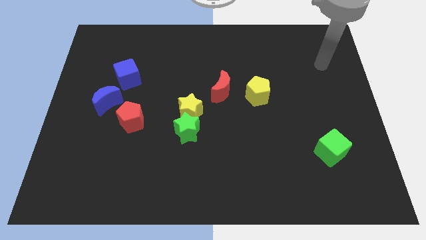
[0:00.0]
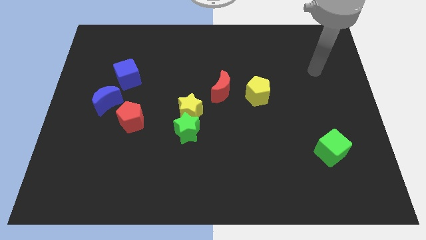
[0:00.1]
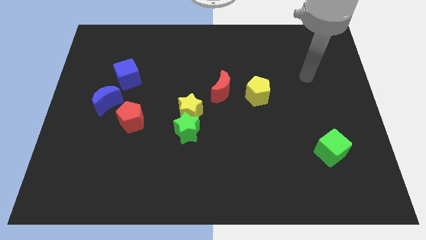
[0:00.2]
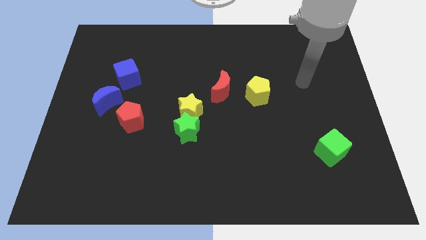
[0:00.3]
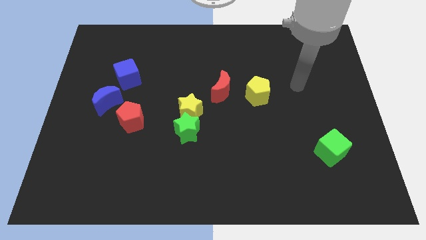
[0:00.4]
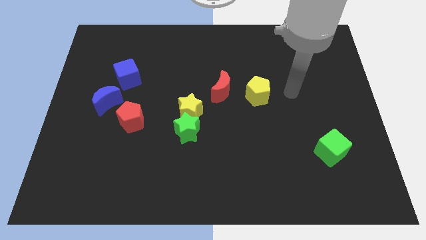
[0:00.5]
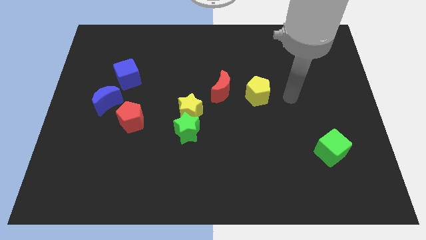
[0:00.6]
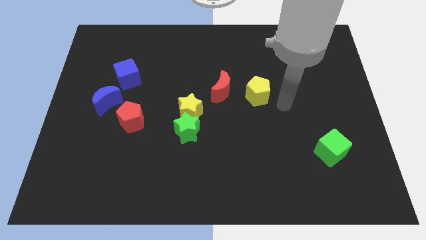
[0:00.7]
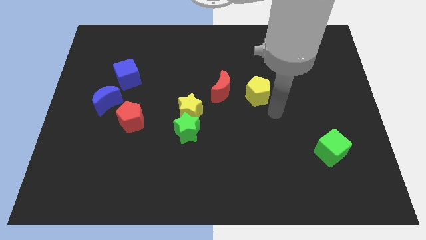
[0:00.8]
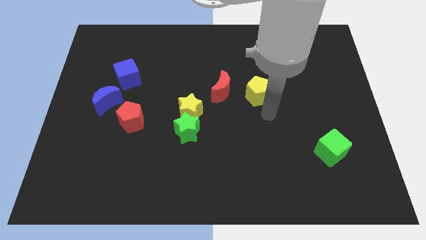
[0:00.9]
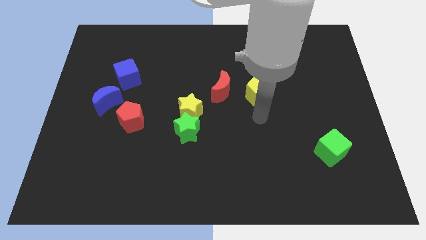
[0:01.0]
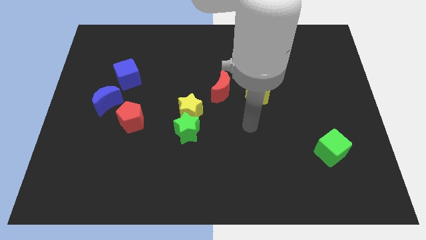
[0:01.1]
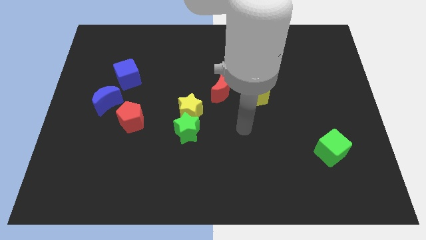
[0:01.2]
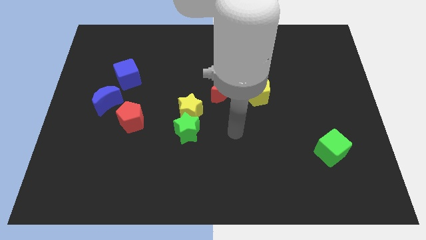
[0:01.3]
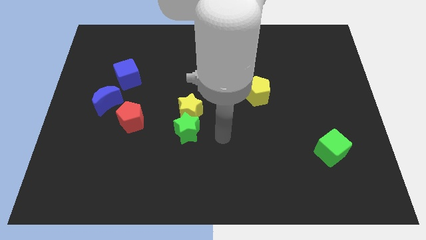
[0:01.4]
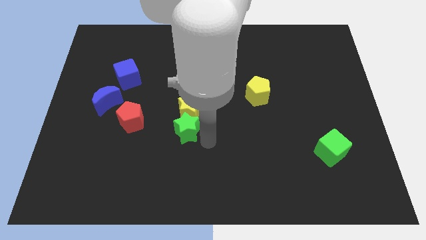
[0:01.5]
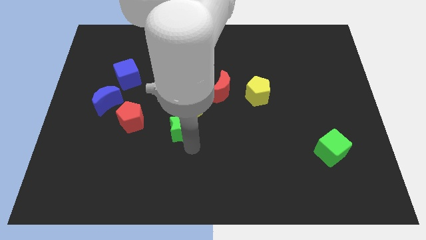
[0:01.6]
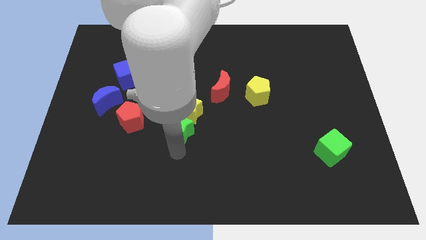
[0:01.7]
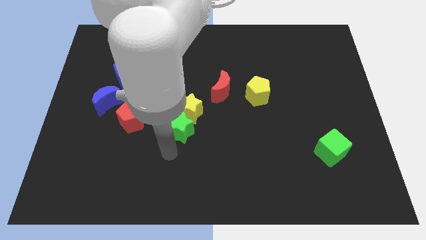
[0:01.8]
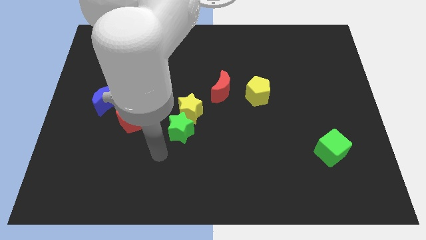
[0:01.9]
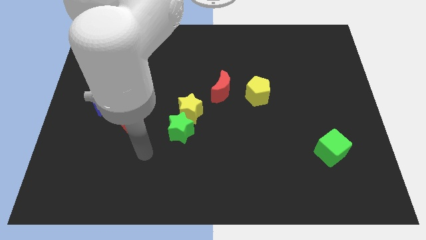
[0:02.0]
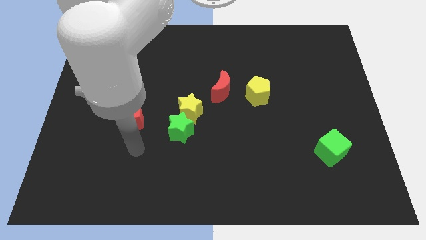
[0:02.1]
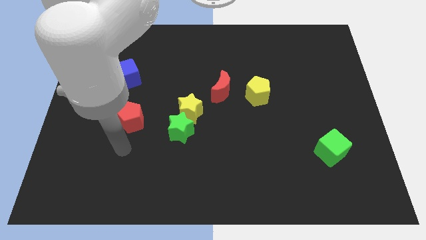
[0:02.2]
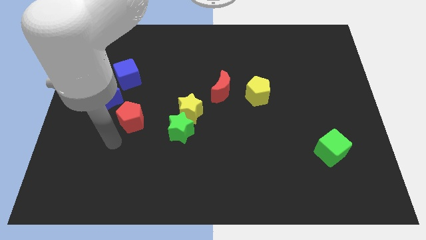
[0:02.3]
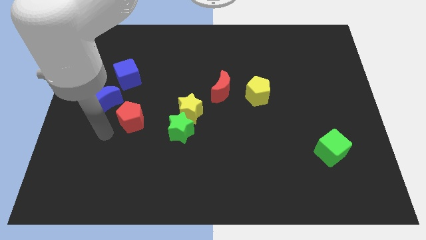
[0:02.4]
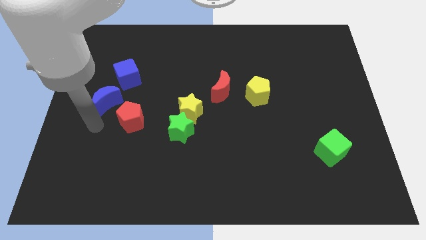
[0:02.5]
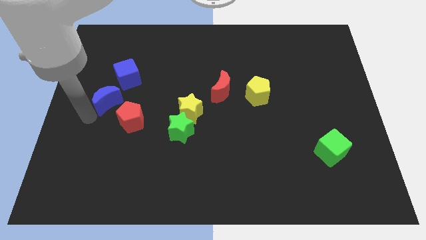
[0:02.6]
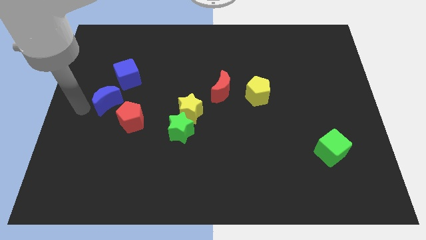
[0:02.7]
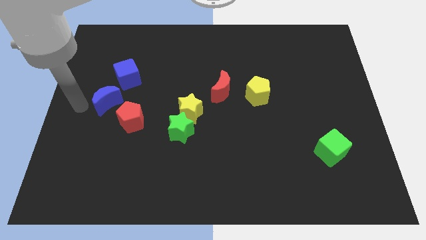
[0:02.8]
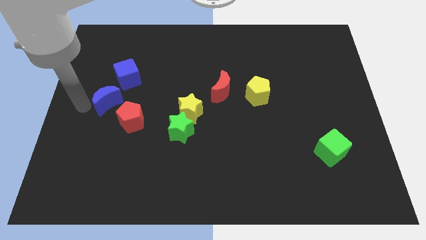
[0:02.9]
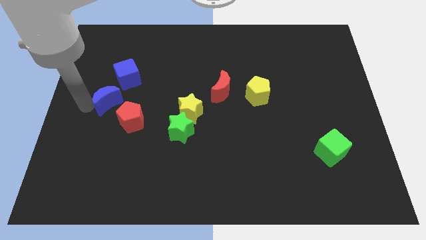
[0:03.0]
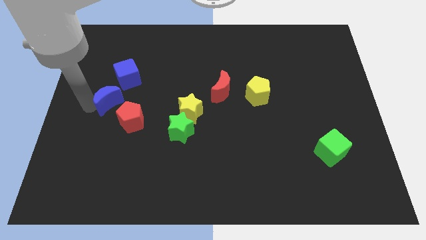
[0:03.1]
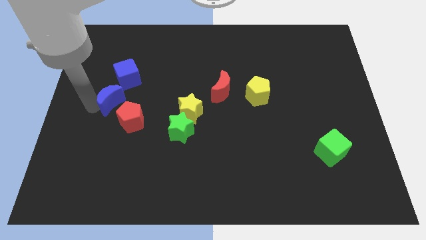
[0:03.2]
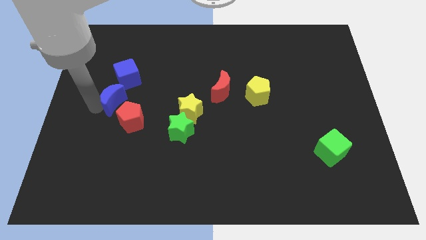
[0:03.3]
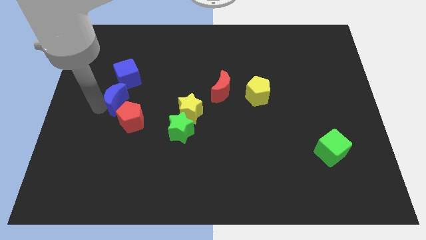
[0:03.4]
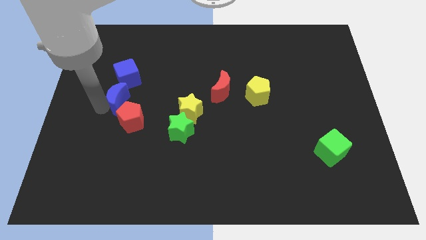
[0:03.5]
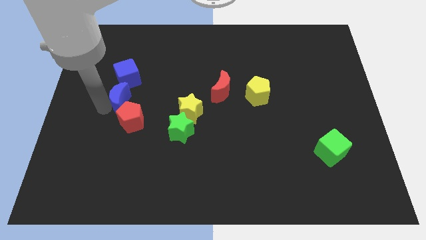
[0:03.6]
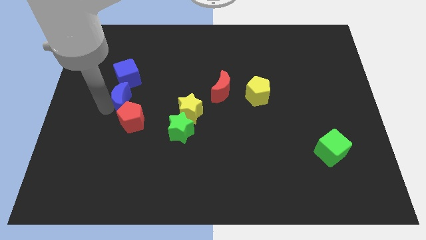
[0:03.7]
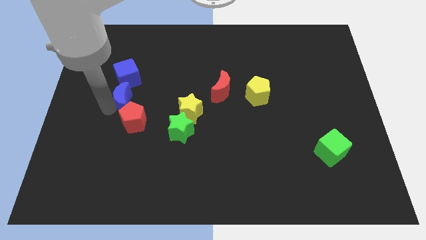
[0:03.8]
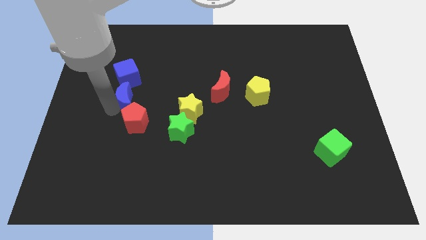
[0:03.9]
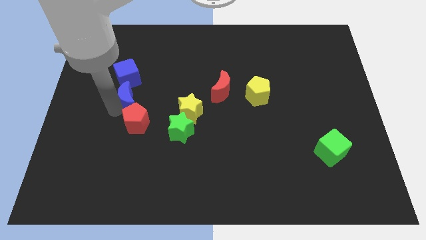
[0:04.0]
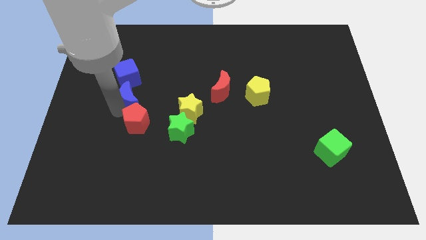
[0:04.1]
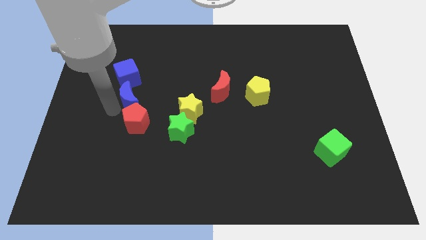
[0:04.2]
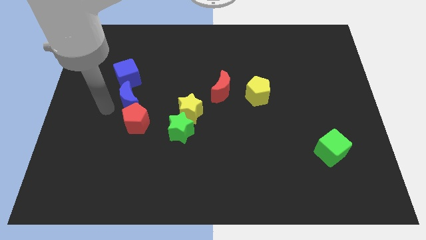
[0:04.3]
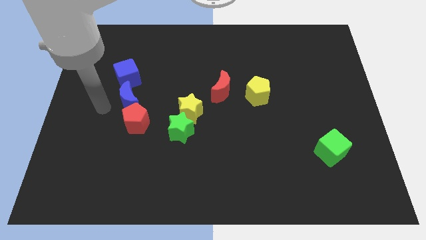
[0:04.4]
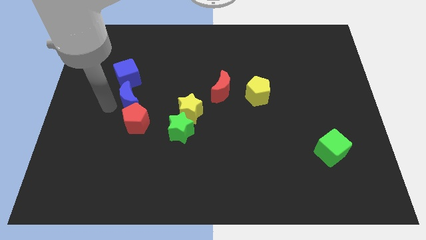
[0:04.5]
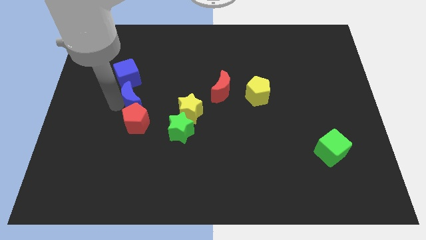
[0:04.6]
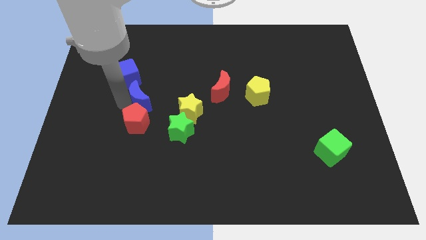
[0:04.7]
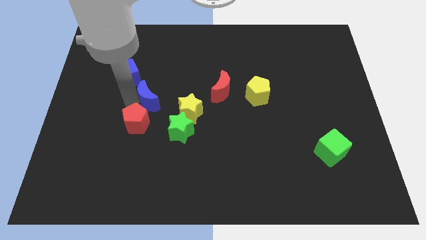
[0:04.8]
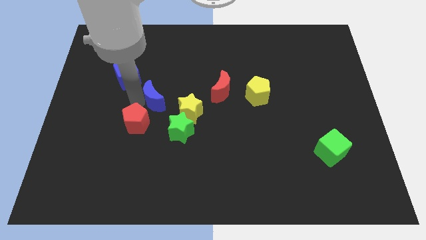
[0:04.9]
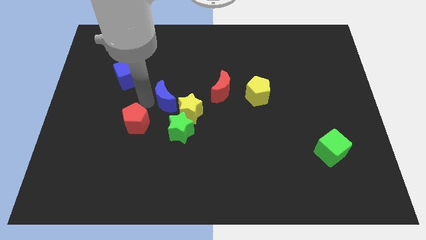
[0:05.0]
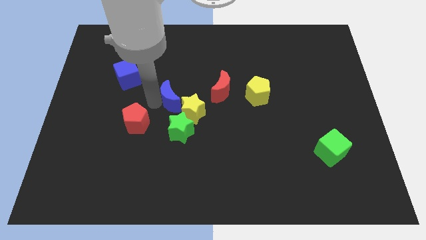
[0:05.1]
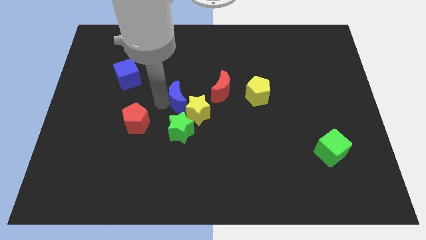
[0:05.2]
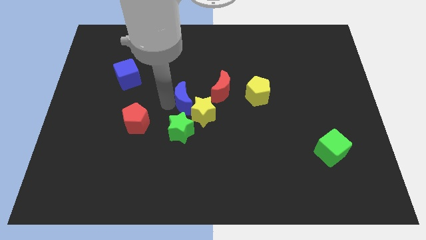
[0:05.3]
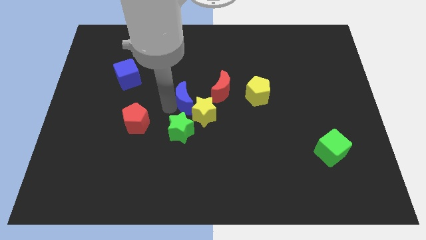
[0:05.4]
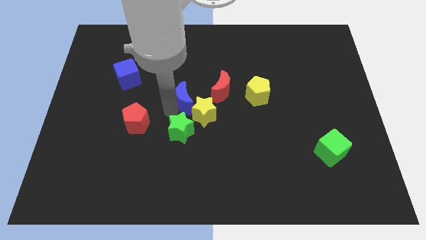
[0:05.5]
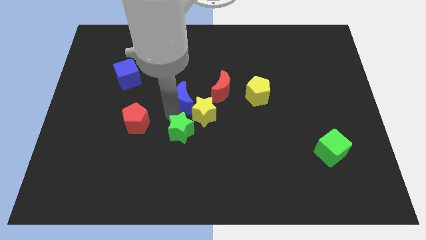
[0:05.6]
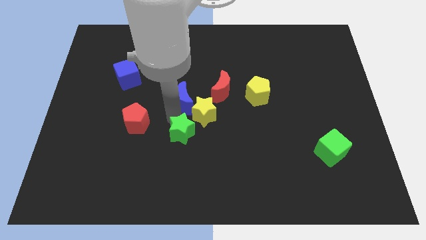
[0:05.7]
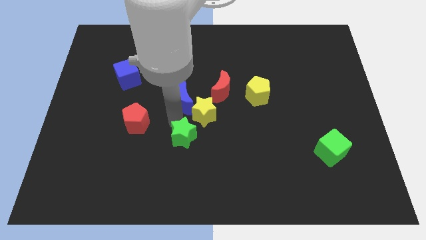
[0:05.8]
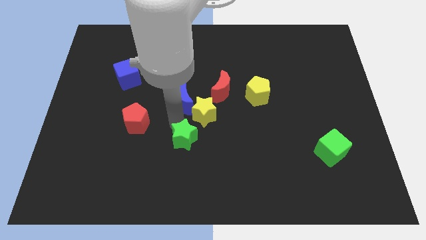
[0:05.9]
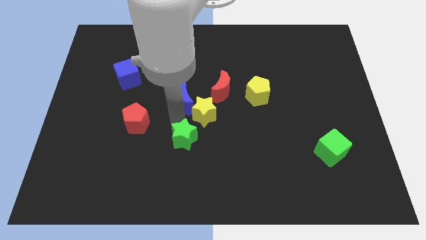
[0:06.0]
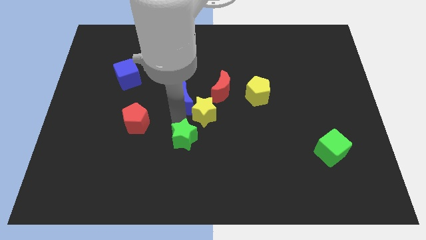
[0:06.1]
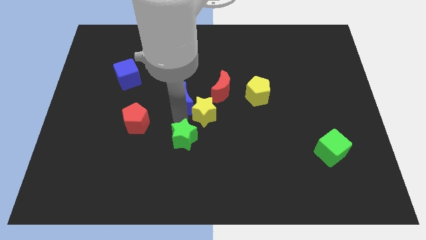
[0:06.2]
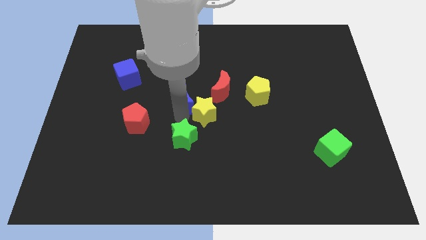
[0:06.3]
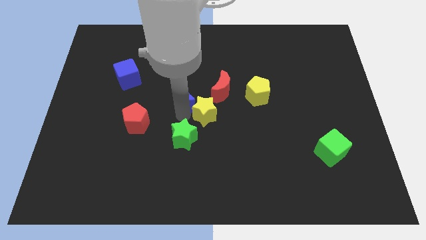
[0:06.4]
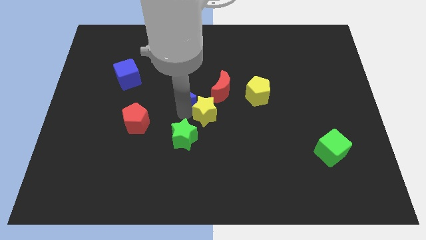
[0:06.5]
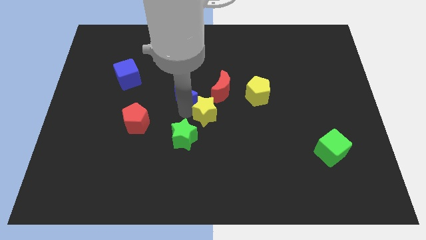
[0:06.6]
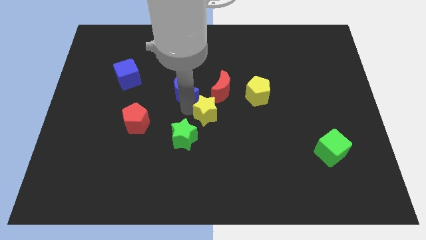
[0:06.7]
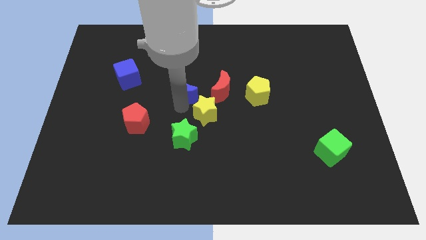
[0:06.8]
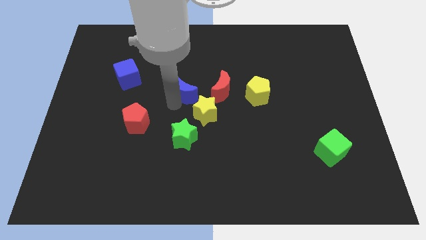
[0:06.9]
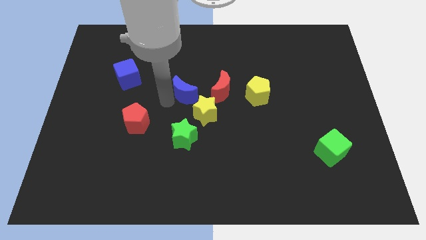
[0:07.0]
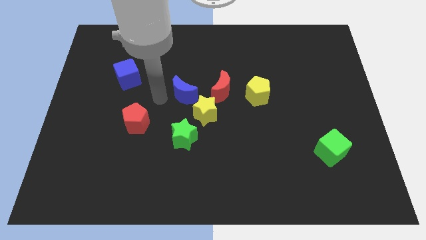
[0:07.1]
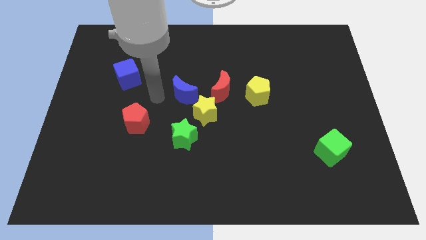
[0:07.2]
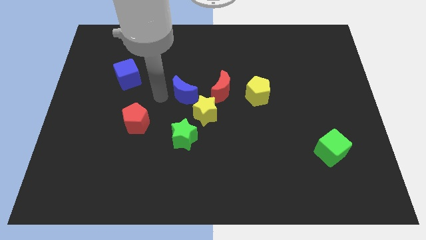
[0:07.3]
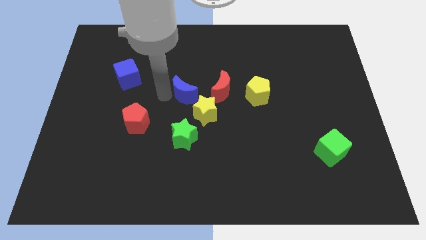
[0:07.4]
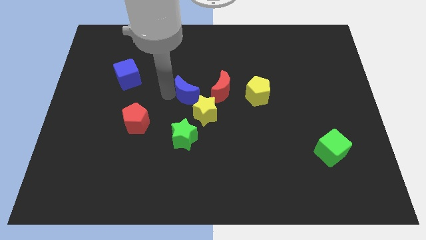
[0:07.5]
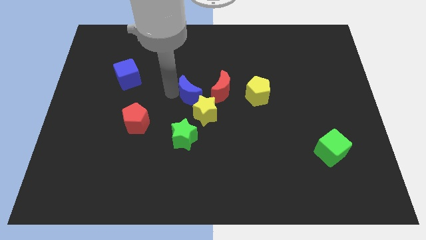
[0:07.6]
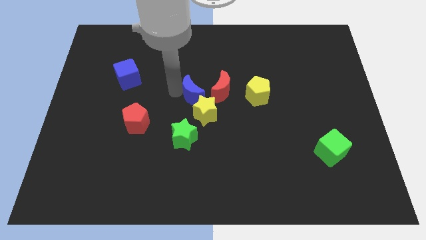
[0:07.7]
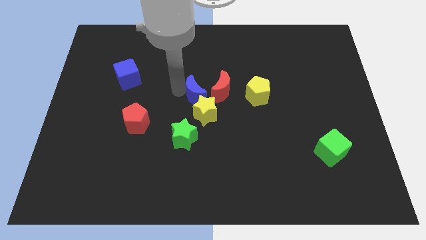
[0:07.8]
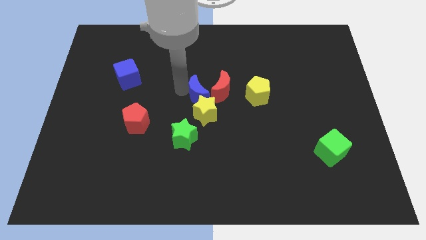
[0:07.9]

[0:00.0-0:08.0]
slide the blue moon towards the red moon

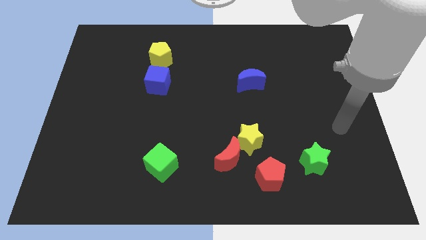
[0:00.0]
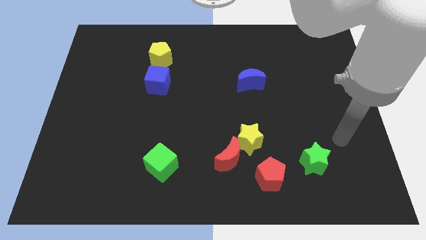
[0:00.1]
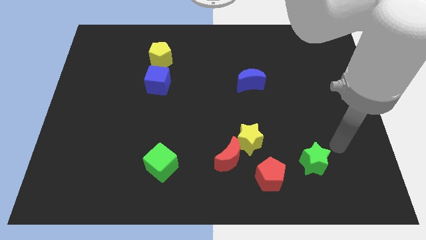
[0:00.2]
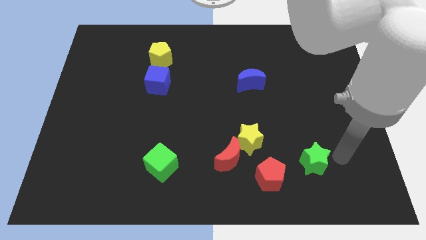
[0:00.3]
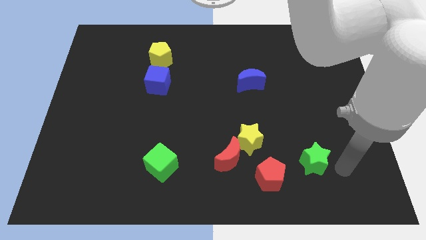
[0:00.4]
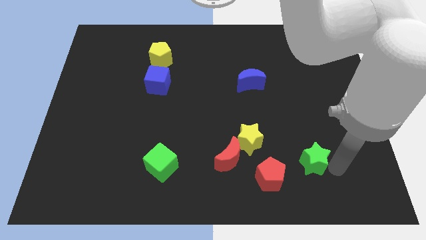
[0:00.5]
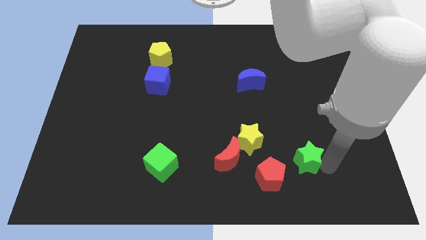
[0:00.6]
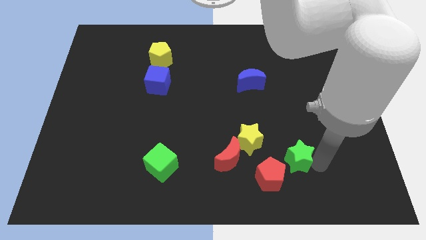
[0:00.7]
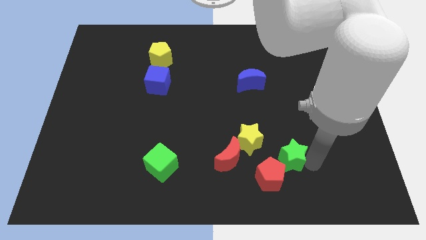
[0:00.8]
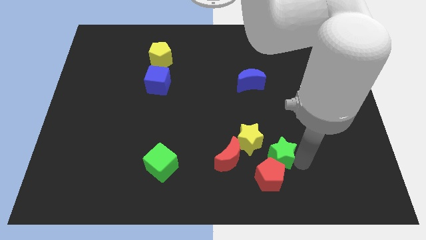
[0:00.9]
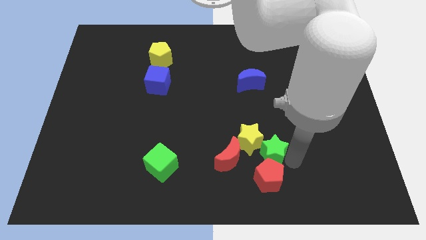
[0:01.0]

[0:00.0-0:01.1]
move the green star close to the yellow star
